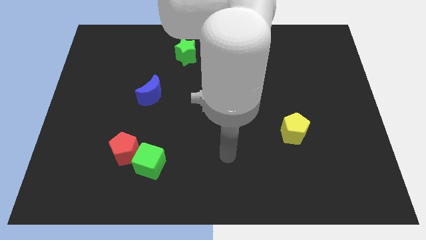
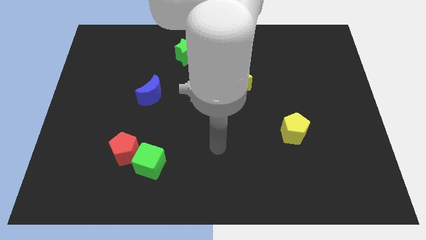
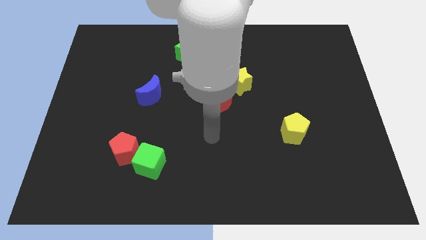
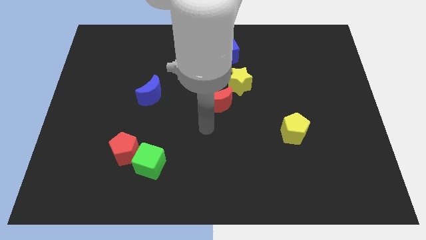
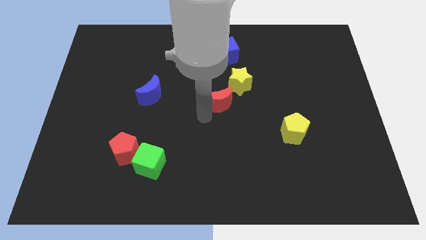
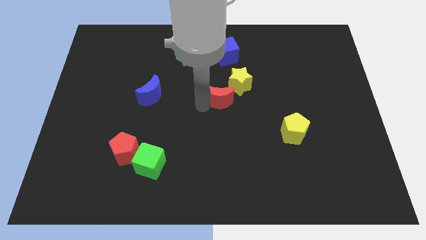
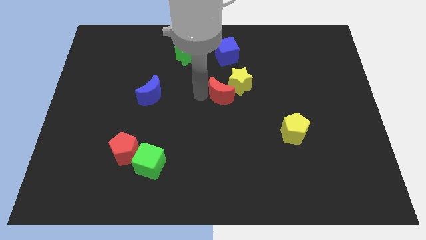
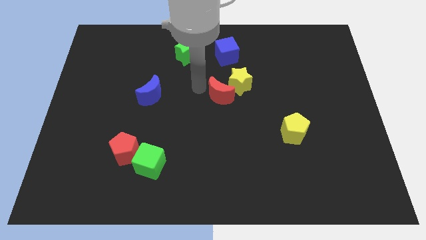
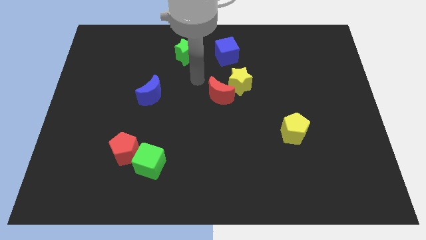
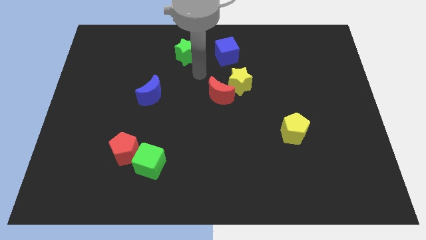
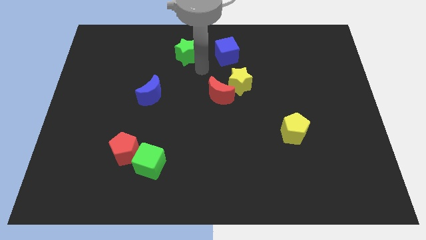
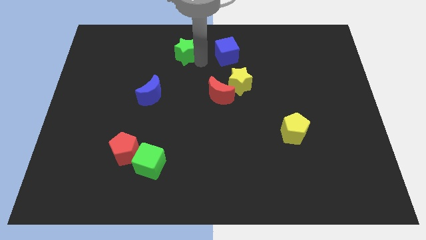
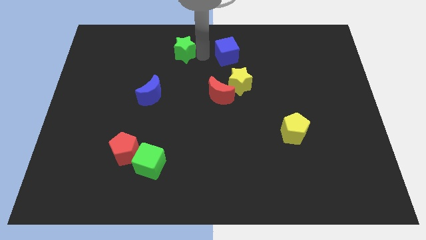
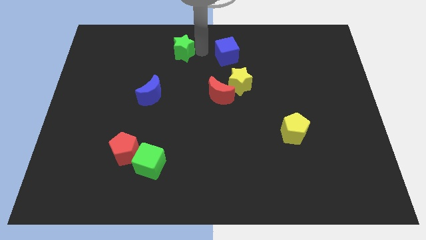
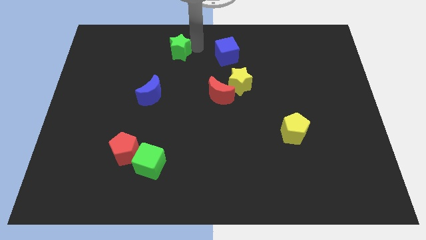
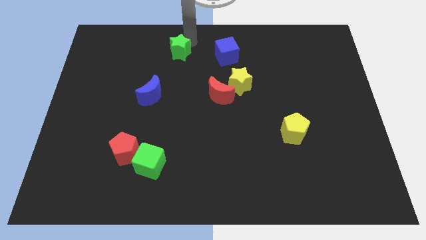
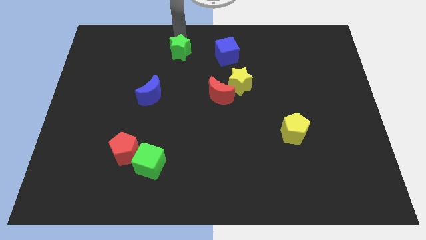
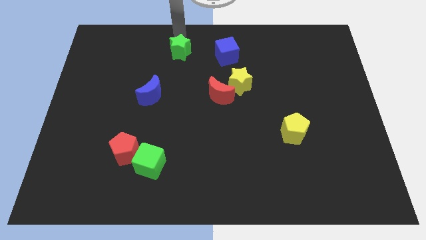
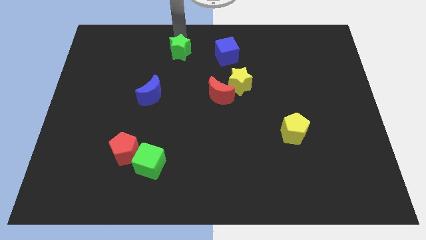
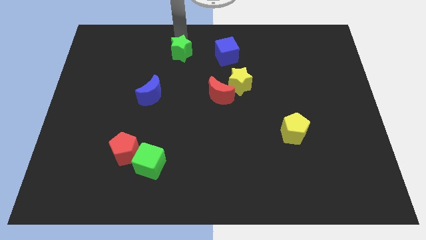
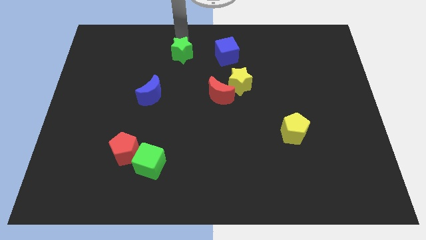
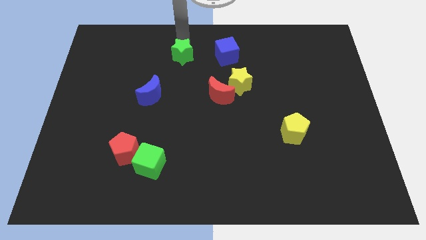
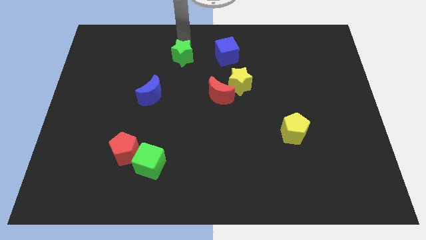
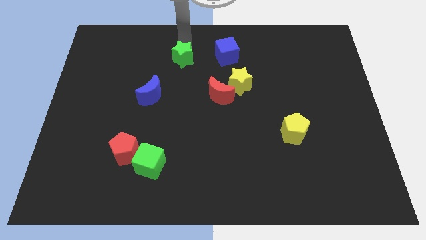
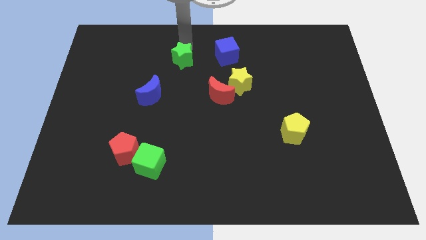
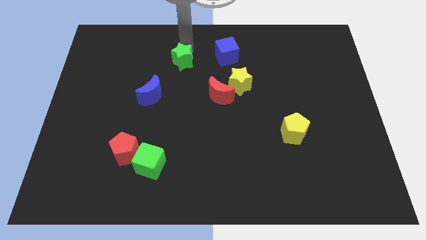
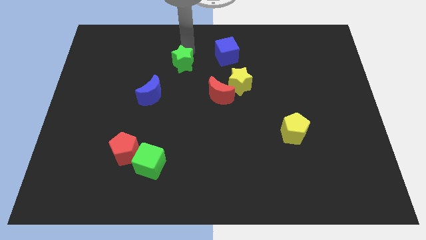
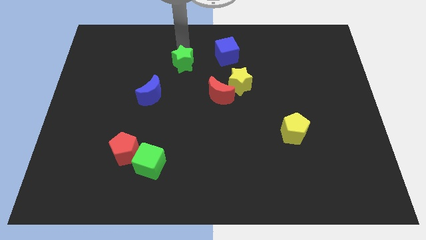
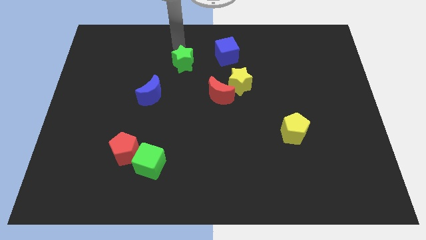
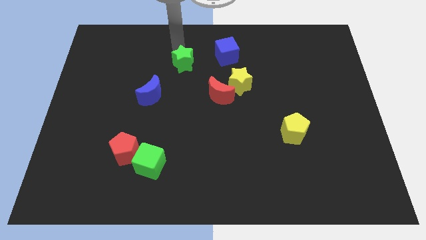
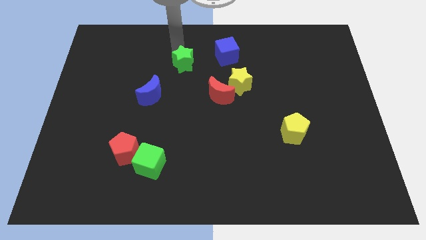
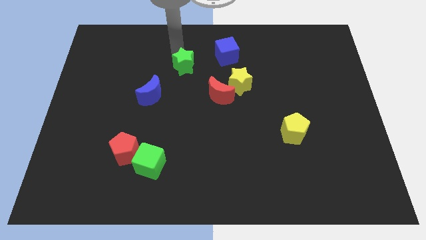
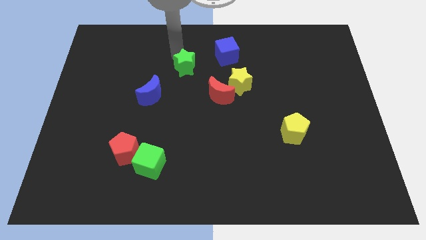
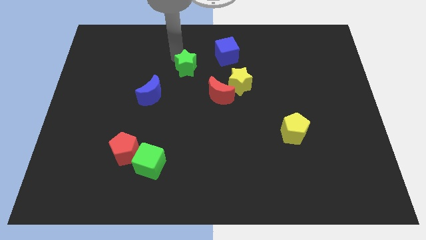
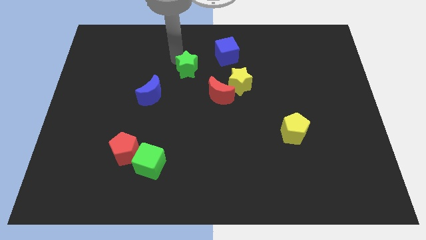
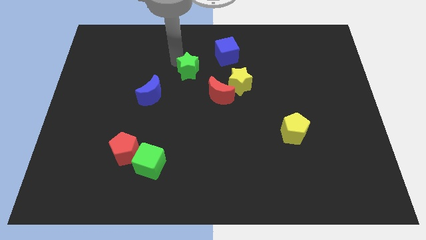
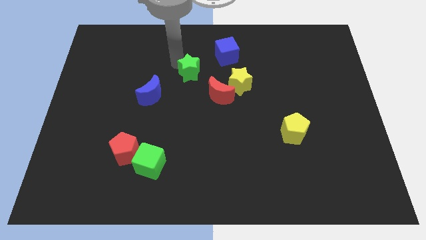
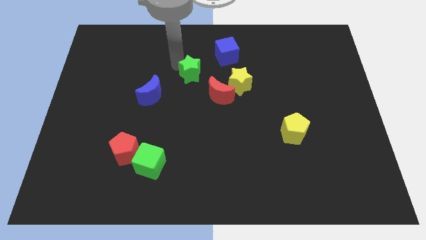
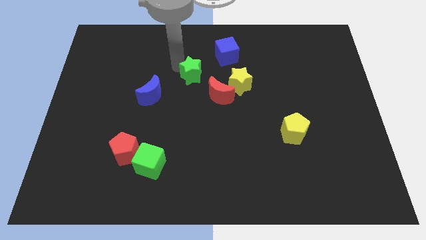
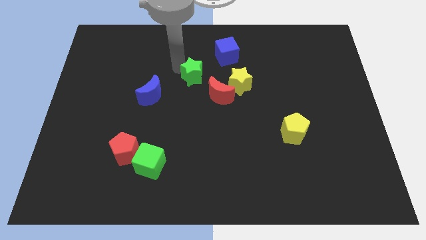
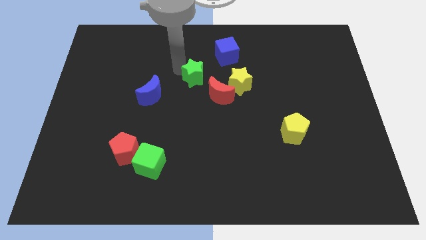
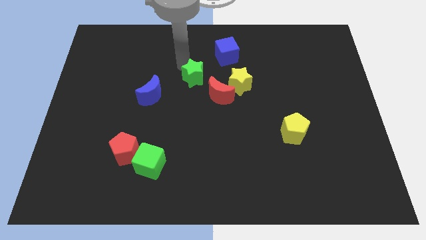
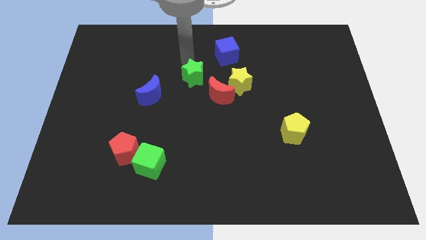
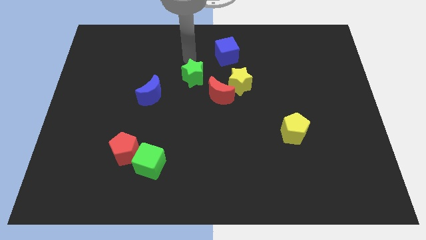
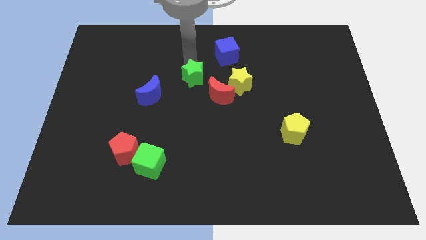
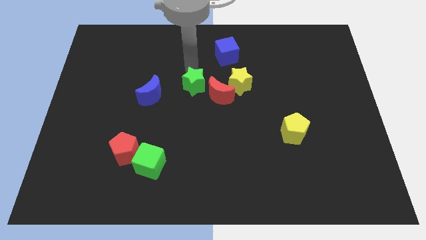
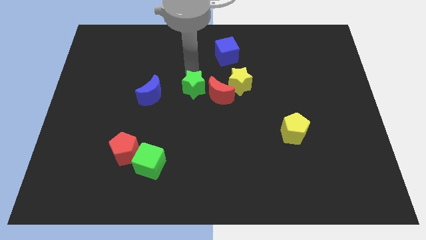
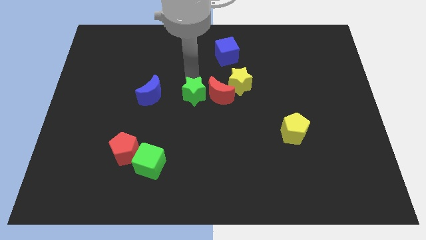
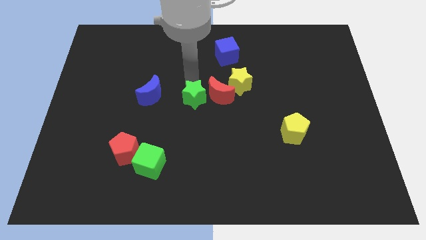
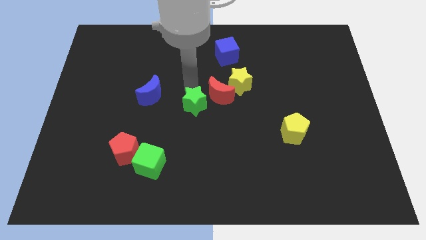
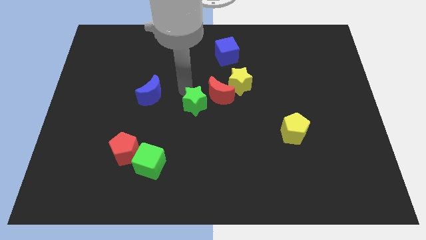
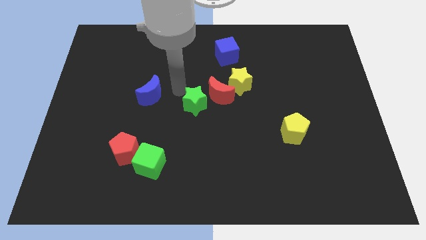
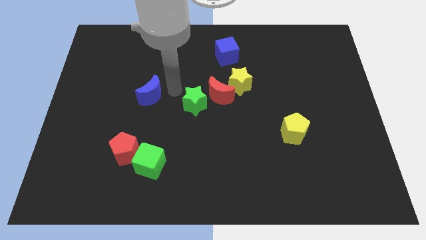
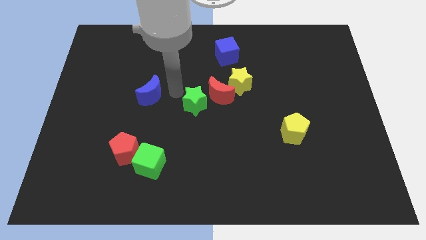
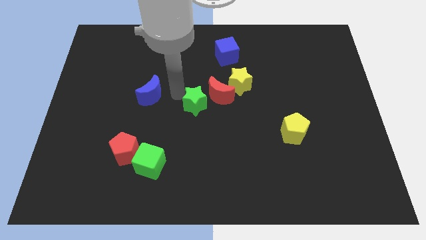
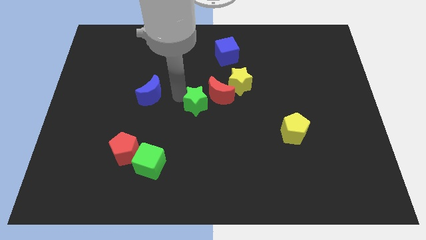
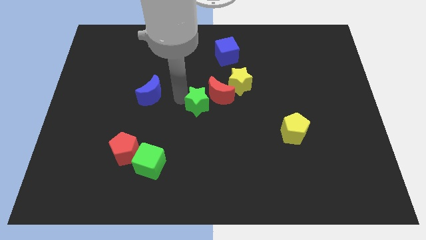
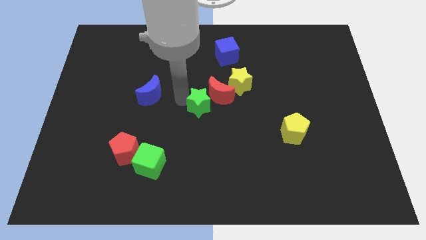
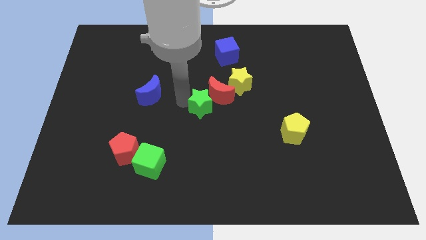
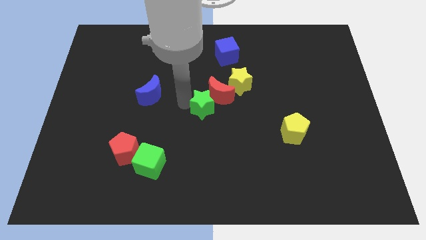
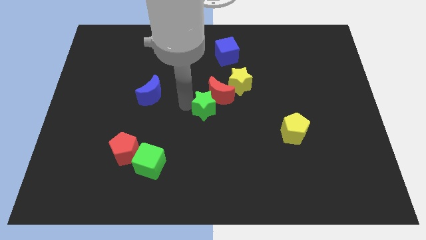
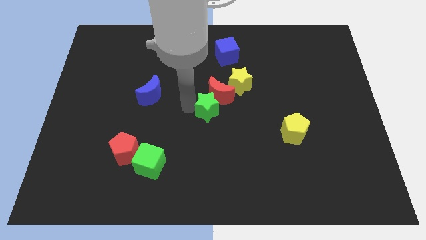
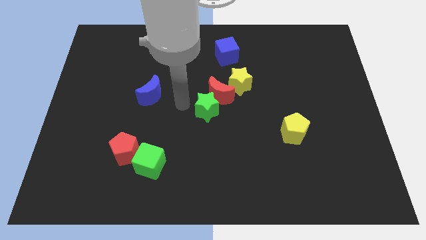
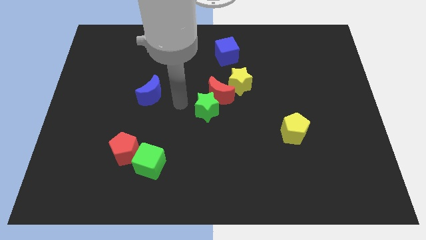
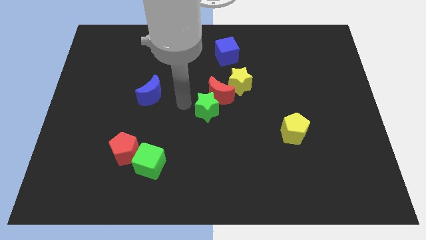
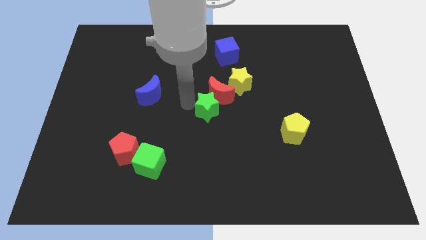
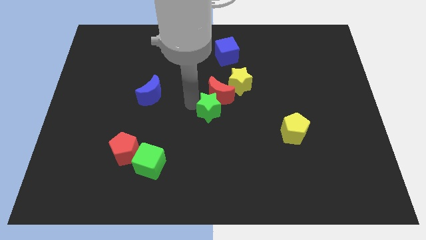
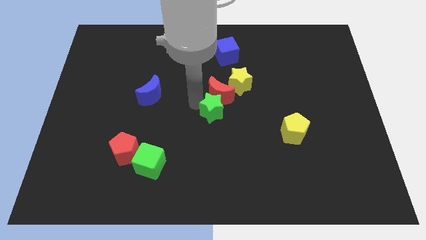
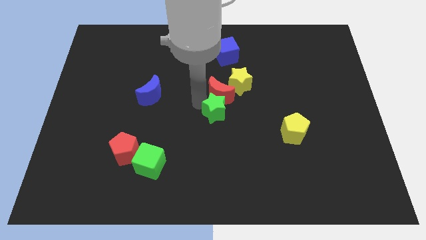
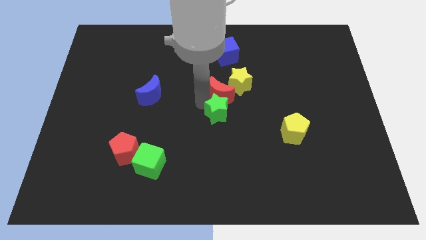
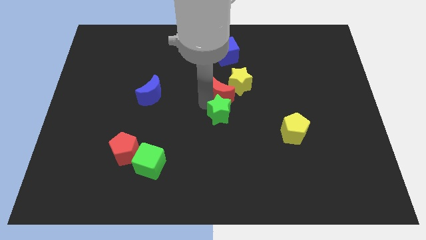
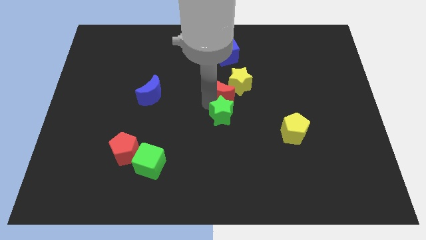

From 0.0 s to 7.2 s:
slide the green star below the yellow star

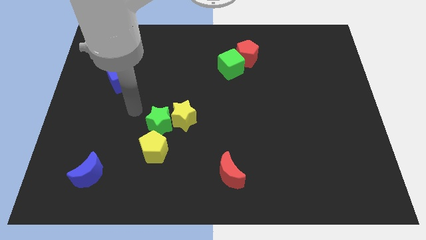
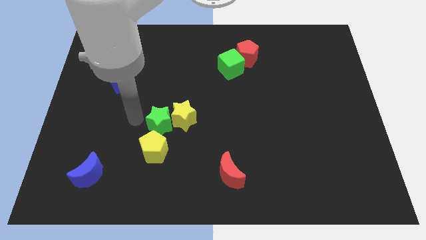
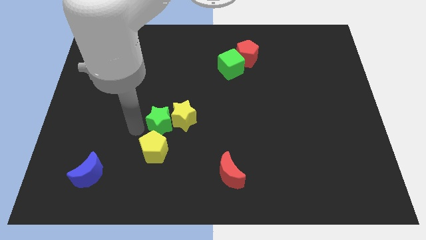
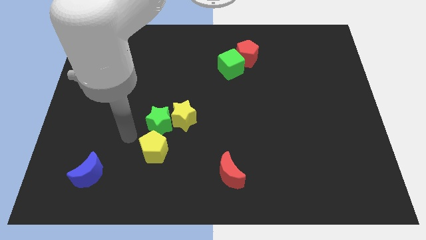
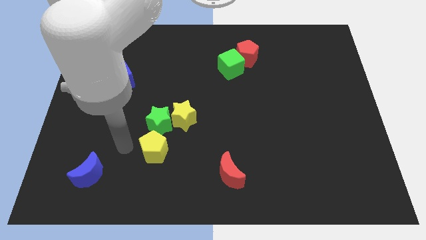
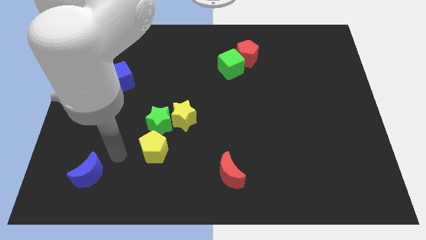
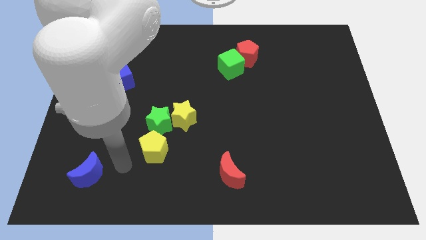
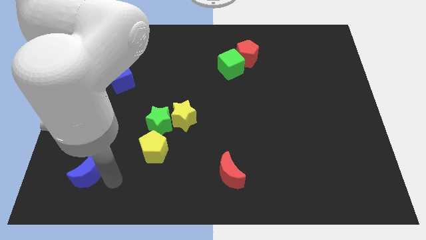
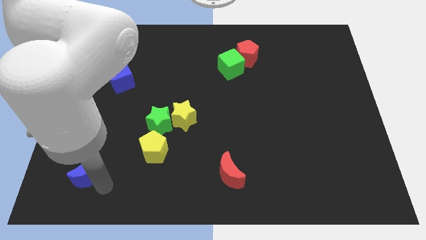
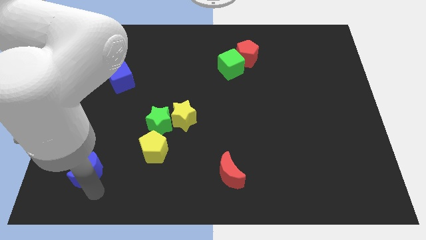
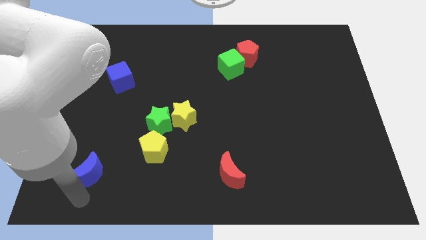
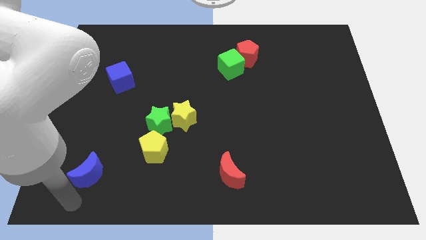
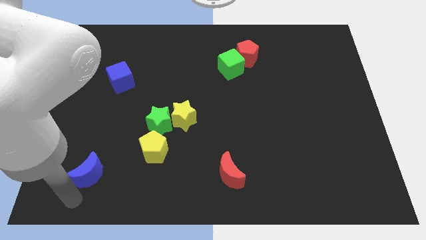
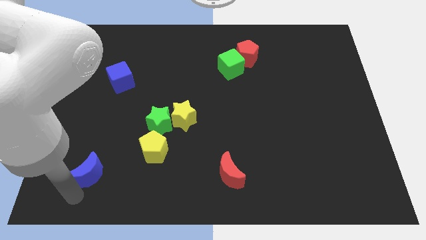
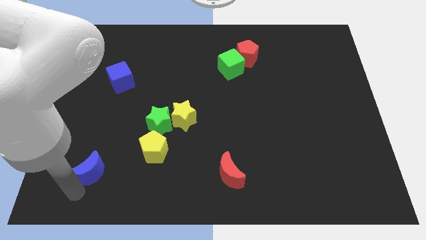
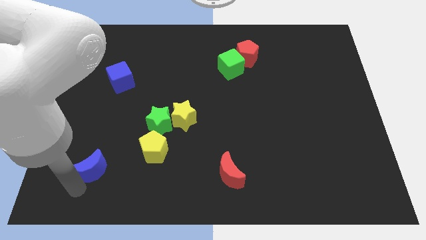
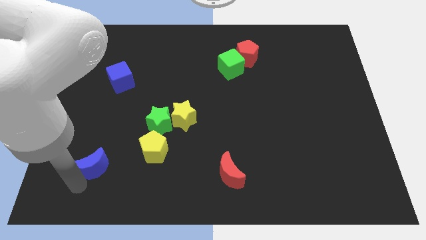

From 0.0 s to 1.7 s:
move the blue moon to the left of the yellow pentagon
